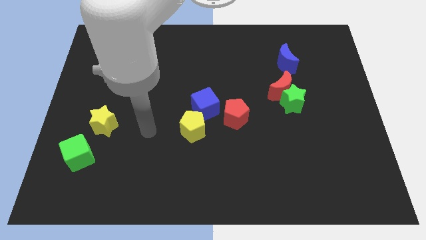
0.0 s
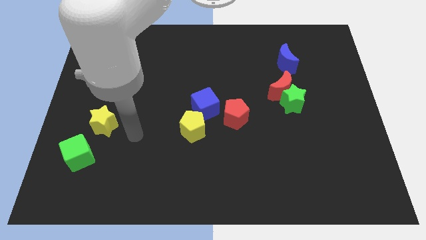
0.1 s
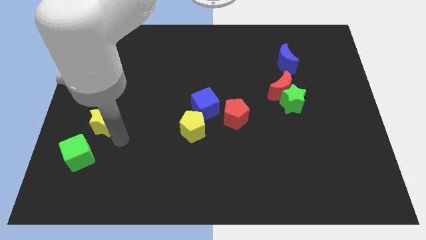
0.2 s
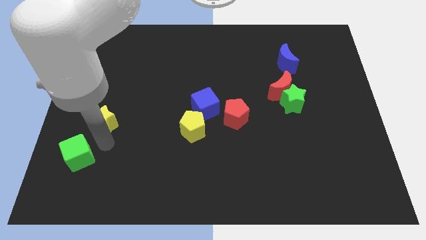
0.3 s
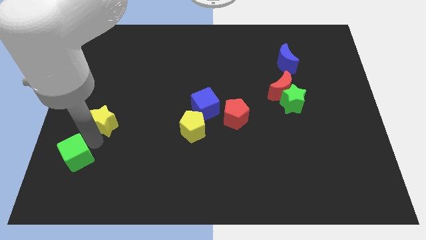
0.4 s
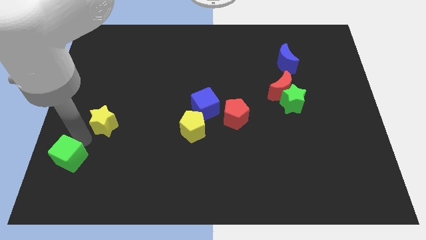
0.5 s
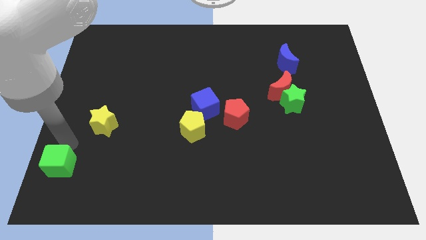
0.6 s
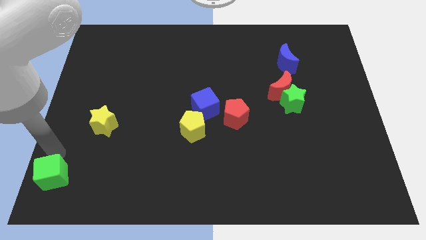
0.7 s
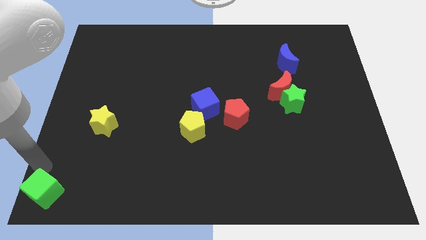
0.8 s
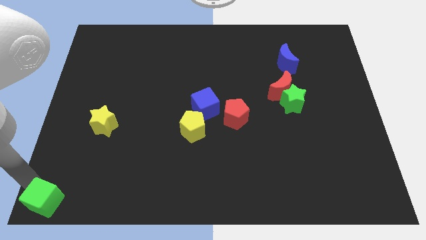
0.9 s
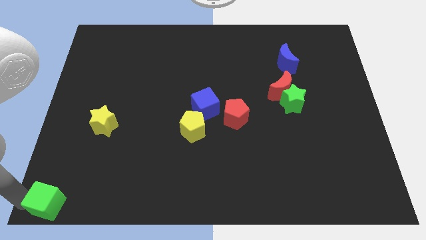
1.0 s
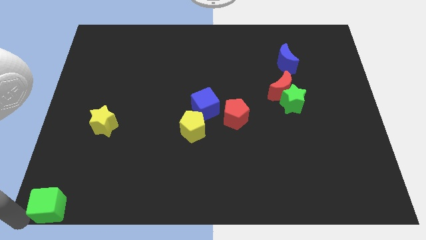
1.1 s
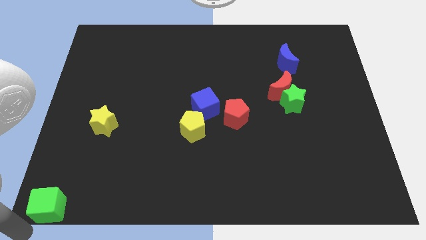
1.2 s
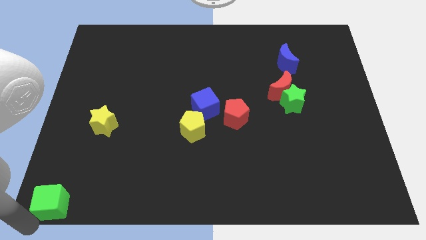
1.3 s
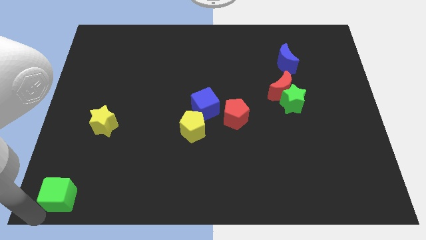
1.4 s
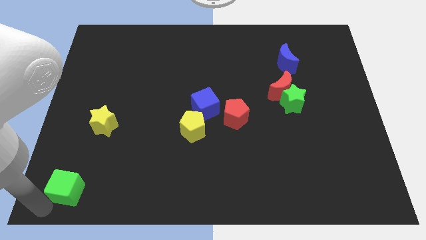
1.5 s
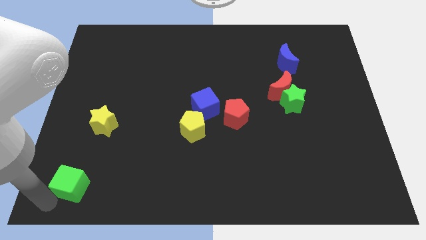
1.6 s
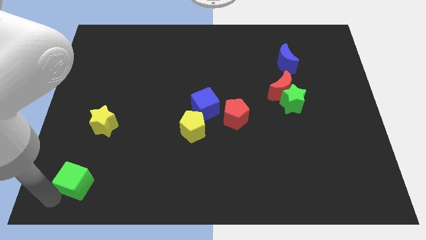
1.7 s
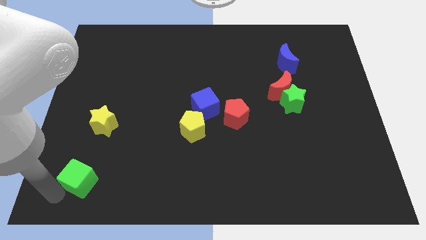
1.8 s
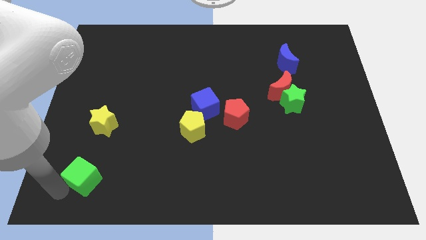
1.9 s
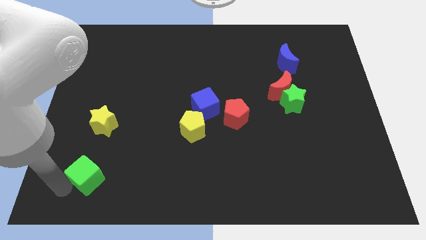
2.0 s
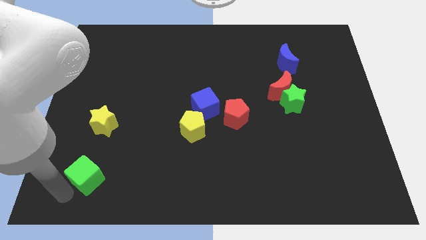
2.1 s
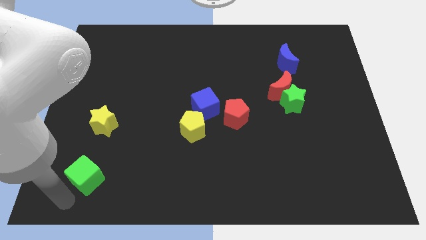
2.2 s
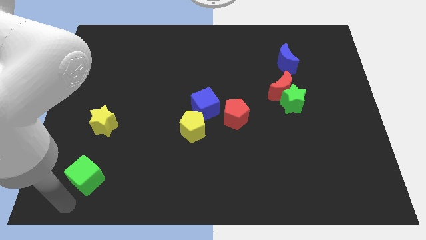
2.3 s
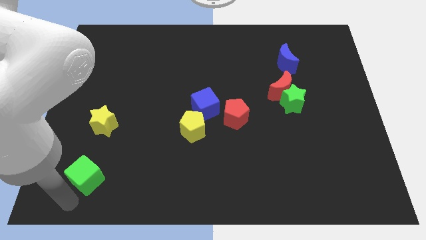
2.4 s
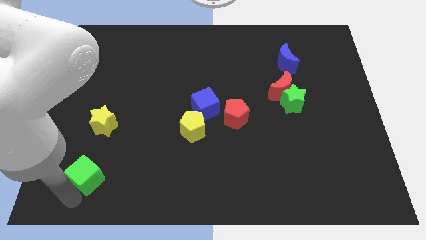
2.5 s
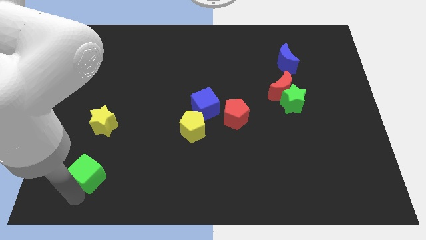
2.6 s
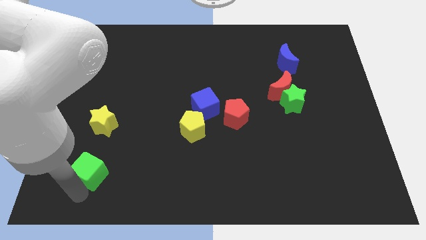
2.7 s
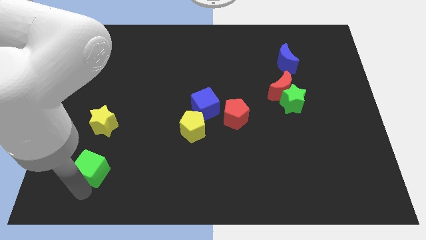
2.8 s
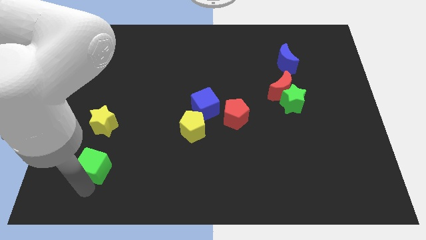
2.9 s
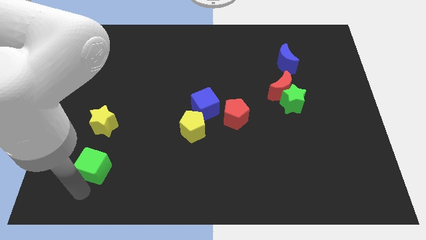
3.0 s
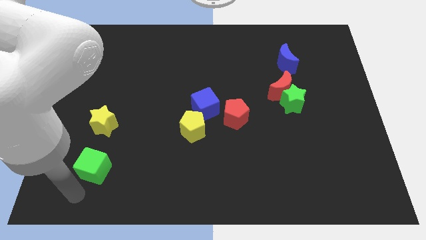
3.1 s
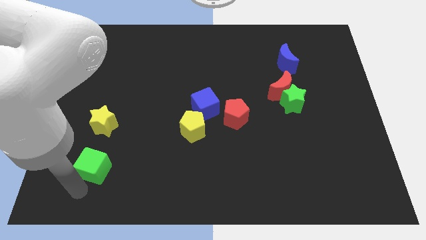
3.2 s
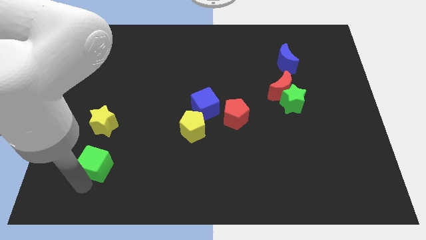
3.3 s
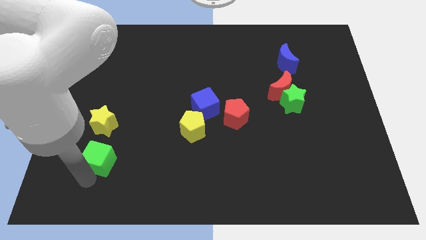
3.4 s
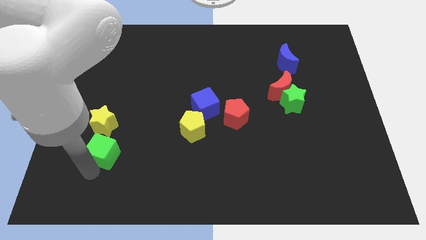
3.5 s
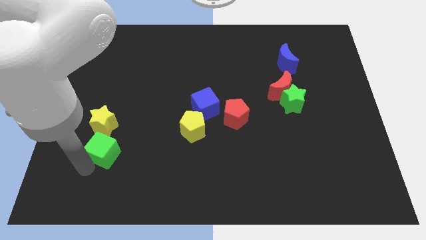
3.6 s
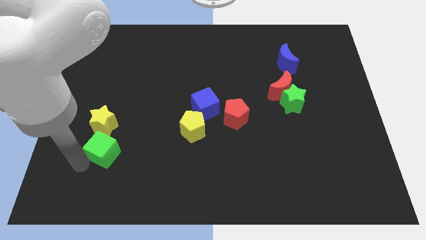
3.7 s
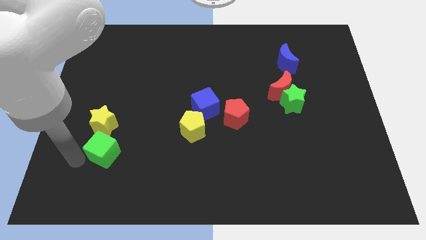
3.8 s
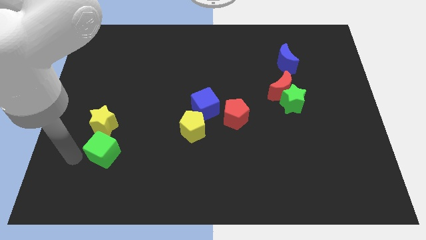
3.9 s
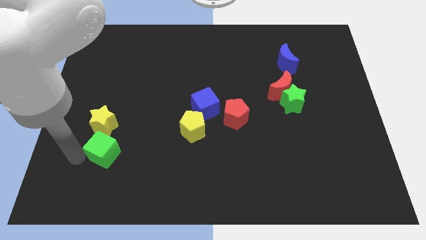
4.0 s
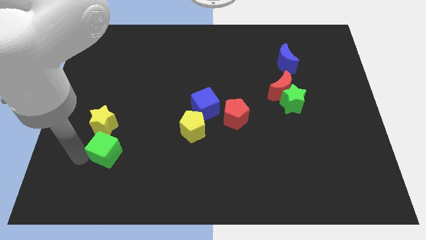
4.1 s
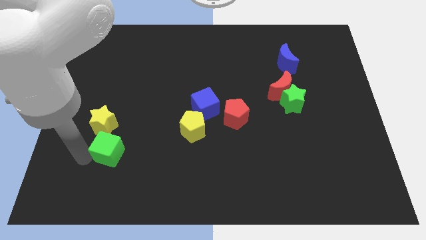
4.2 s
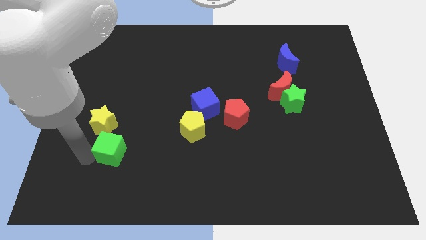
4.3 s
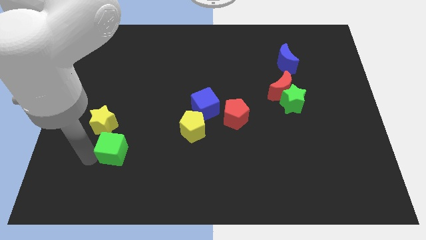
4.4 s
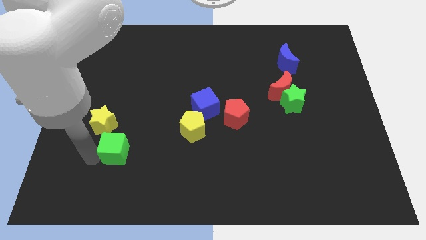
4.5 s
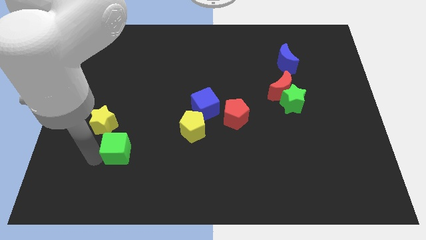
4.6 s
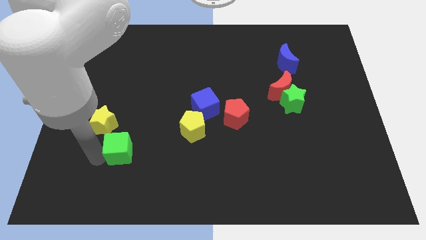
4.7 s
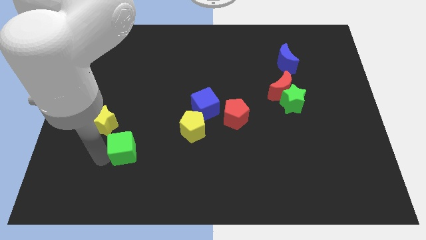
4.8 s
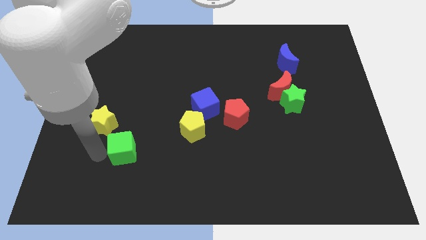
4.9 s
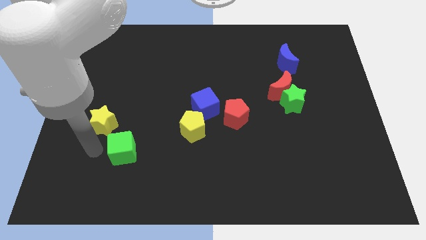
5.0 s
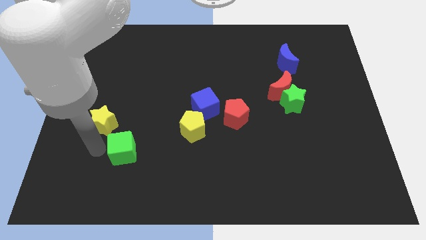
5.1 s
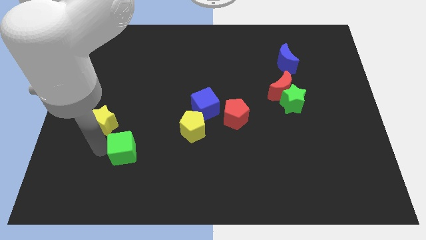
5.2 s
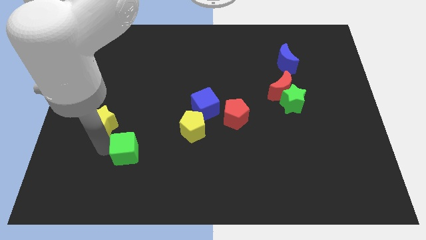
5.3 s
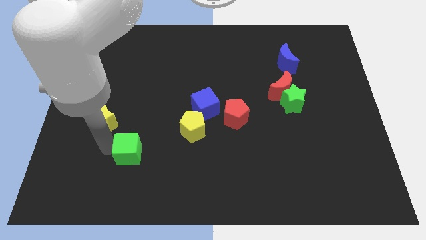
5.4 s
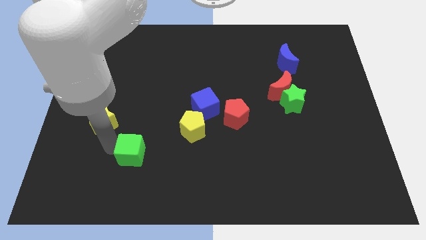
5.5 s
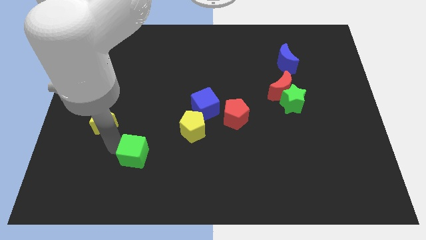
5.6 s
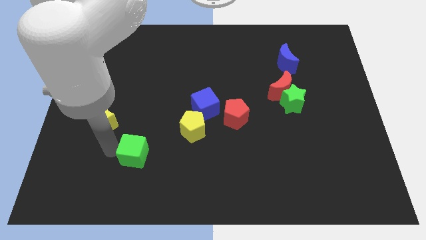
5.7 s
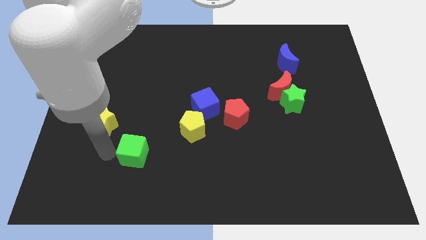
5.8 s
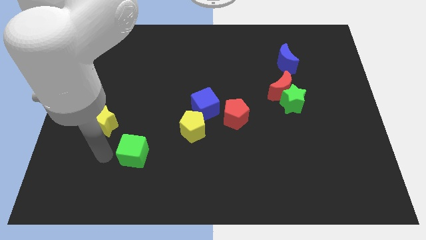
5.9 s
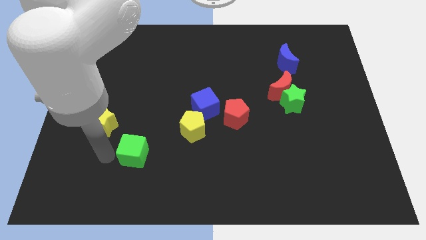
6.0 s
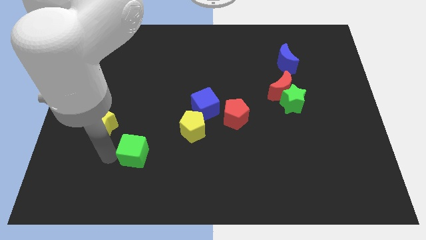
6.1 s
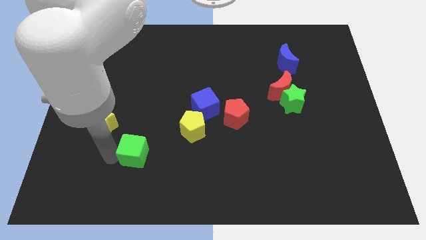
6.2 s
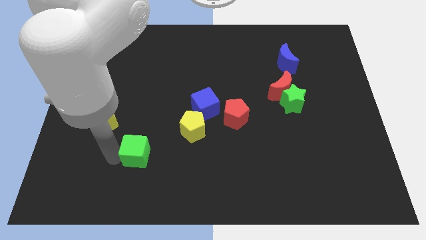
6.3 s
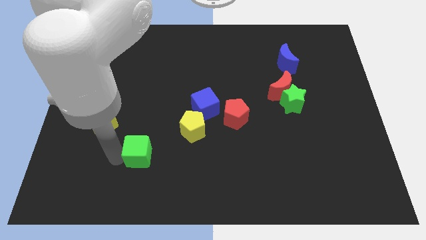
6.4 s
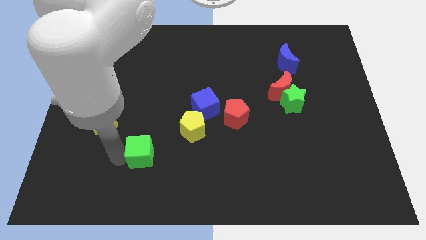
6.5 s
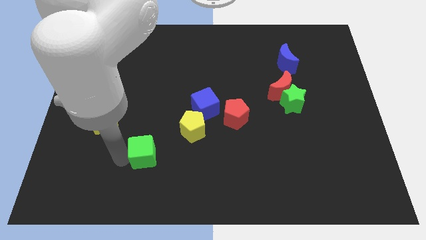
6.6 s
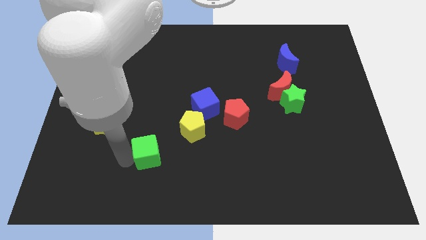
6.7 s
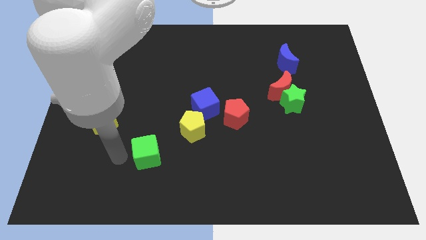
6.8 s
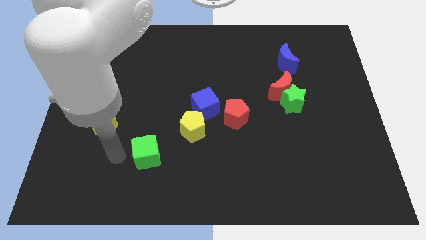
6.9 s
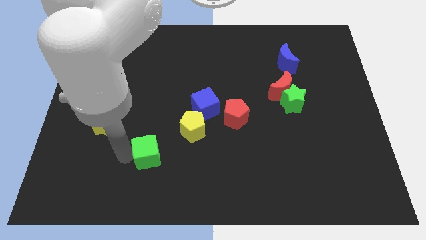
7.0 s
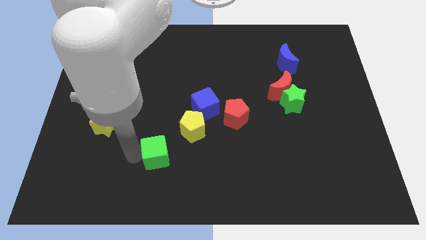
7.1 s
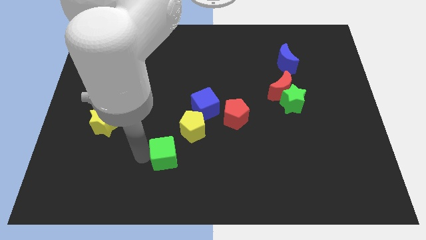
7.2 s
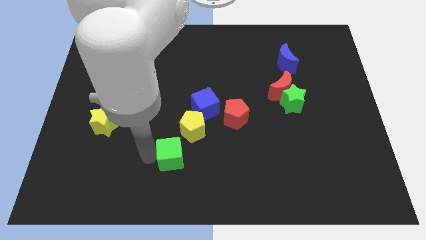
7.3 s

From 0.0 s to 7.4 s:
slide the green cube right

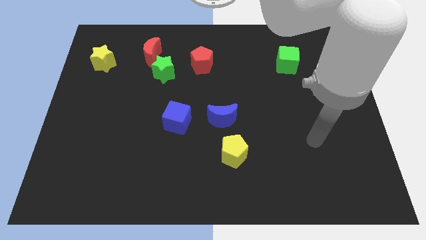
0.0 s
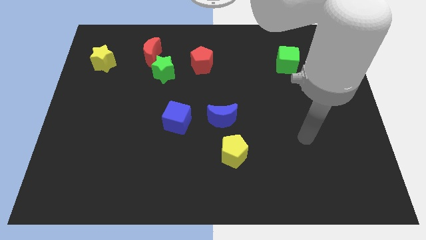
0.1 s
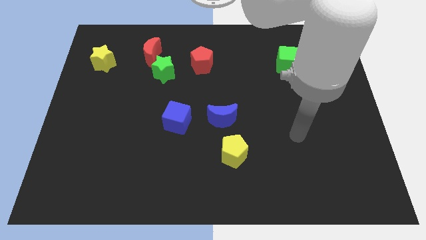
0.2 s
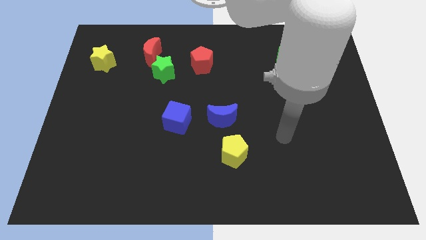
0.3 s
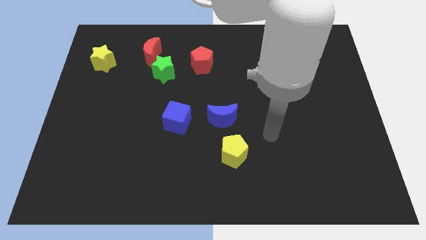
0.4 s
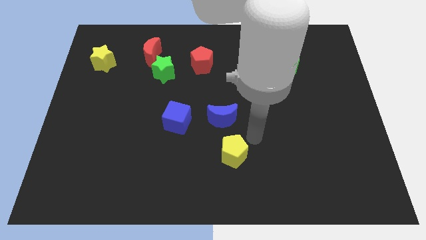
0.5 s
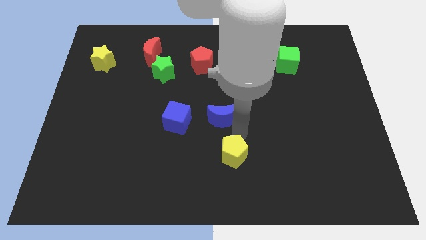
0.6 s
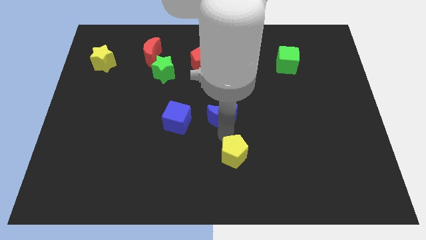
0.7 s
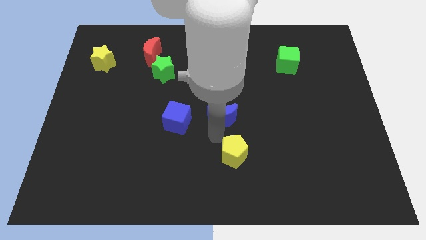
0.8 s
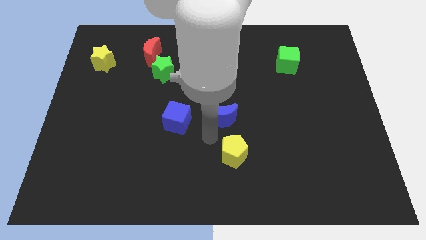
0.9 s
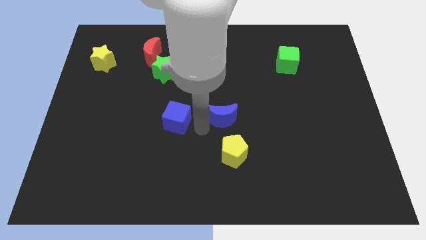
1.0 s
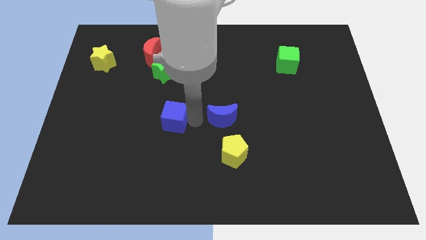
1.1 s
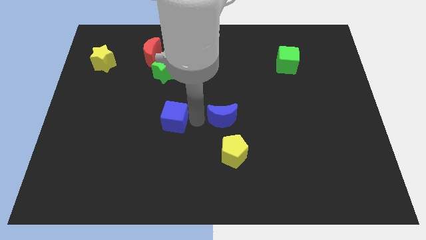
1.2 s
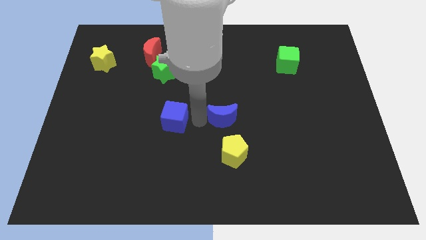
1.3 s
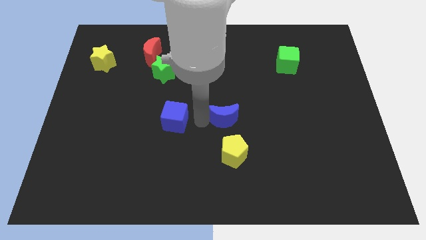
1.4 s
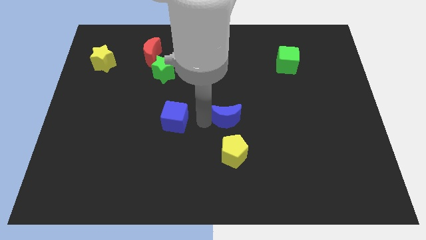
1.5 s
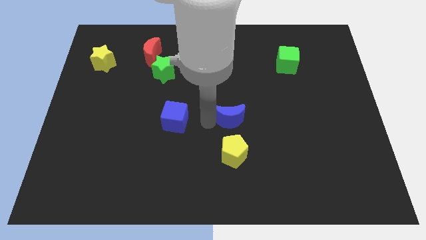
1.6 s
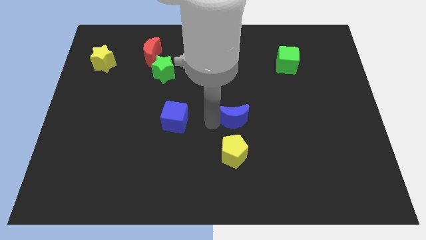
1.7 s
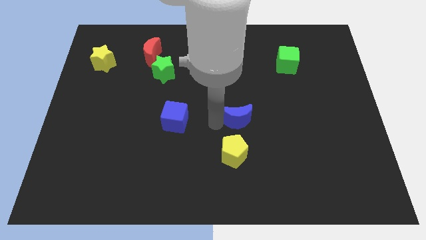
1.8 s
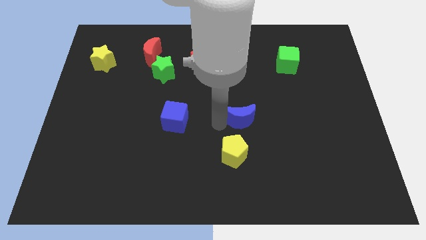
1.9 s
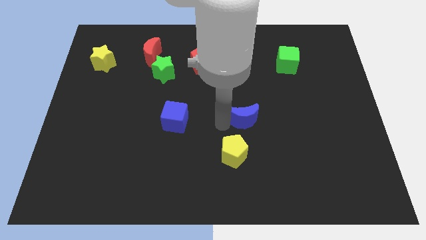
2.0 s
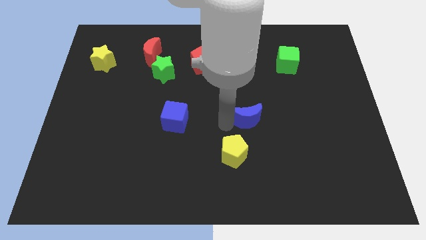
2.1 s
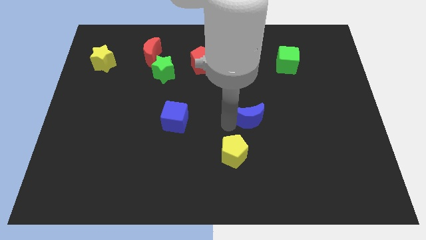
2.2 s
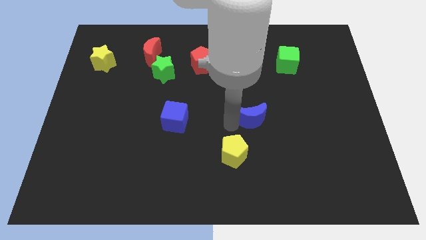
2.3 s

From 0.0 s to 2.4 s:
move the blue moon to the right a bit
